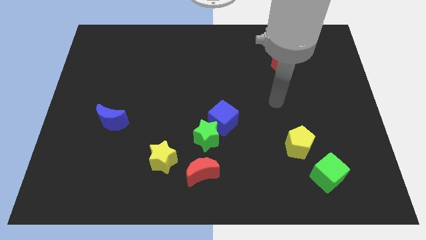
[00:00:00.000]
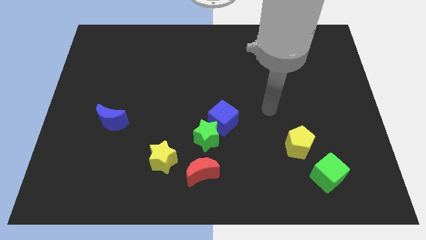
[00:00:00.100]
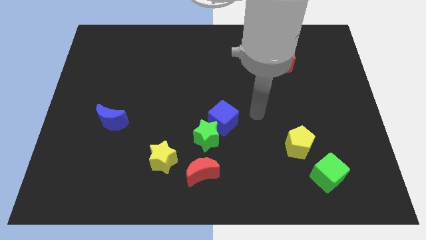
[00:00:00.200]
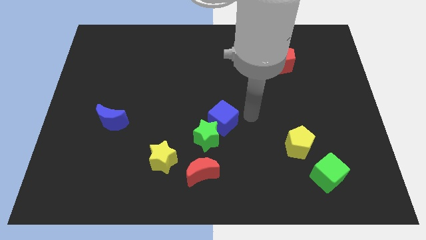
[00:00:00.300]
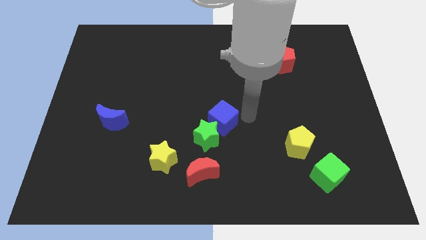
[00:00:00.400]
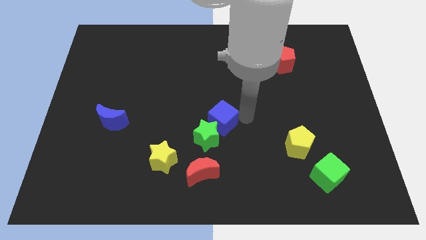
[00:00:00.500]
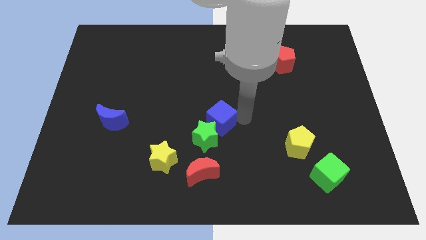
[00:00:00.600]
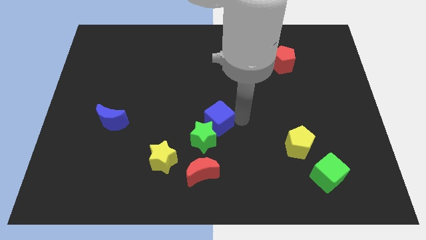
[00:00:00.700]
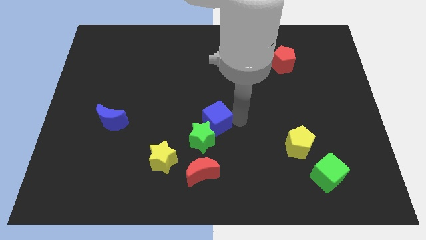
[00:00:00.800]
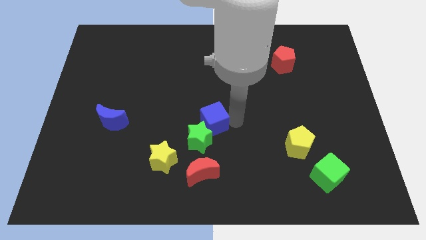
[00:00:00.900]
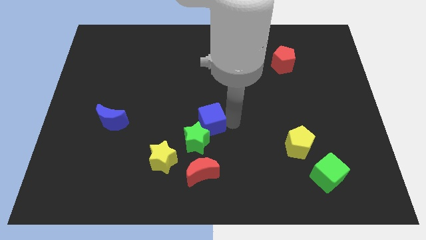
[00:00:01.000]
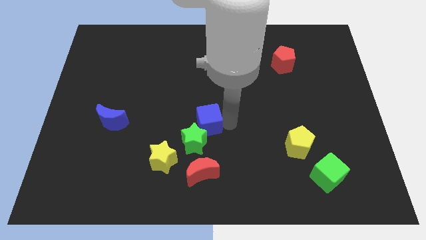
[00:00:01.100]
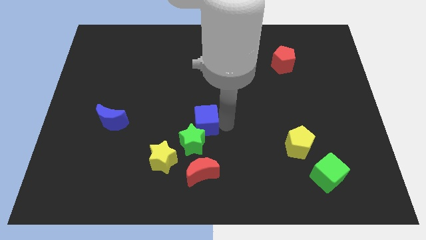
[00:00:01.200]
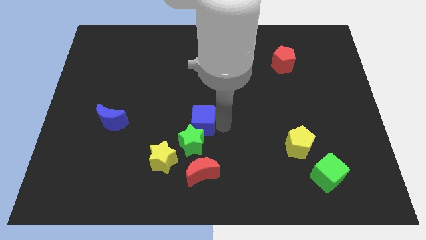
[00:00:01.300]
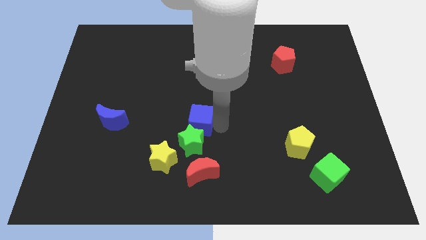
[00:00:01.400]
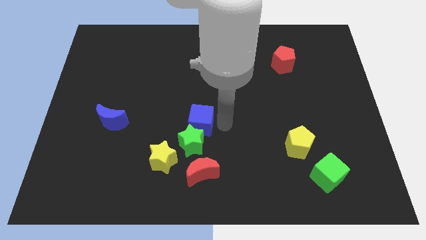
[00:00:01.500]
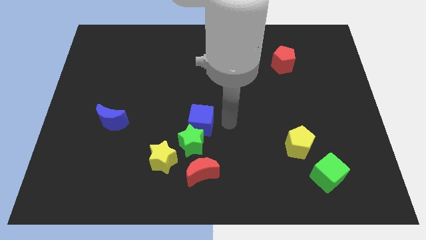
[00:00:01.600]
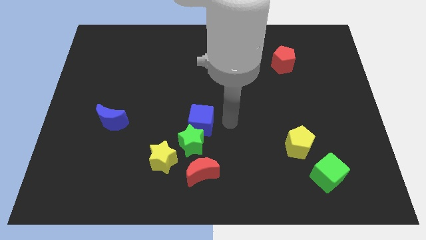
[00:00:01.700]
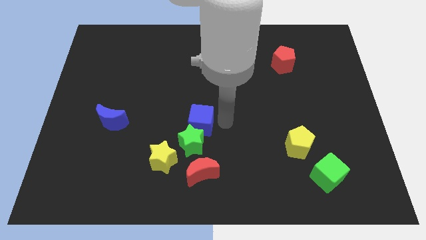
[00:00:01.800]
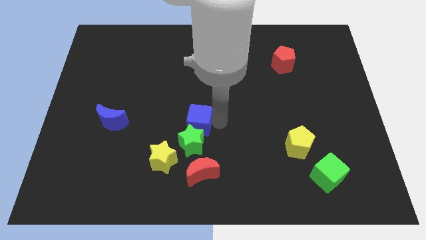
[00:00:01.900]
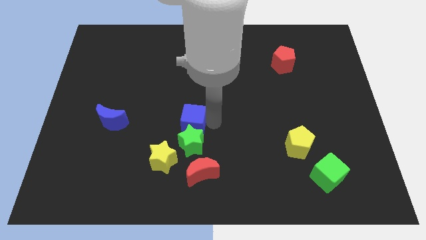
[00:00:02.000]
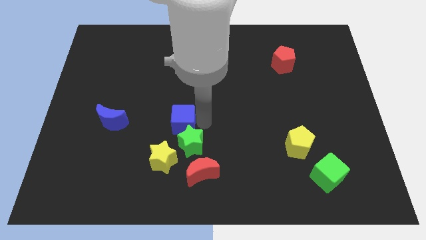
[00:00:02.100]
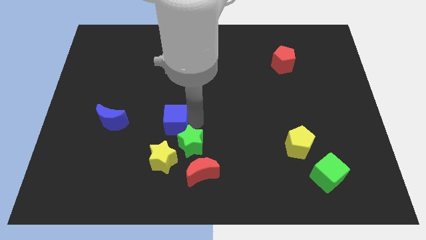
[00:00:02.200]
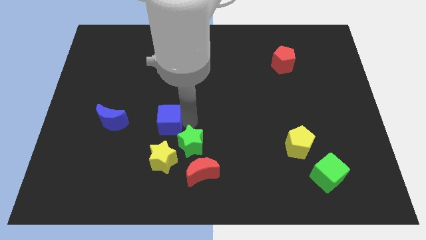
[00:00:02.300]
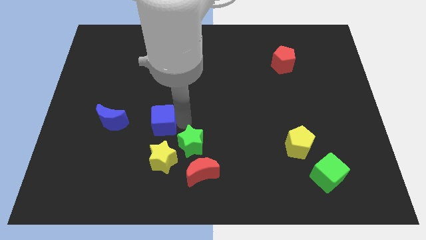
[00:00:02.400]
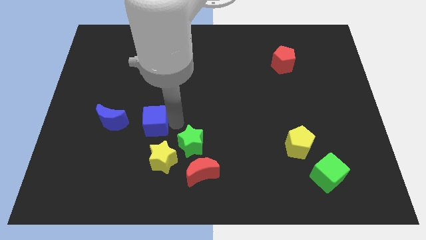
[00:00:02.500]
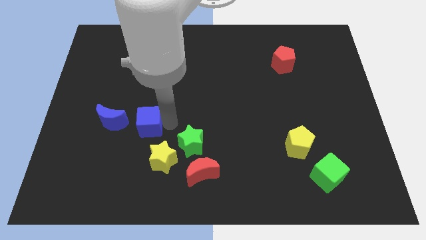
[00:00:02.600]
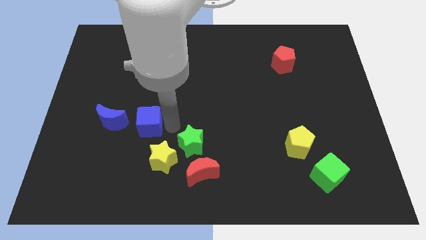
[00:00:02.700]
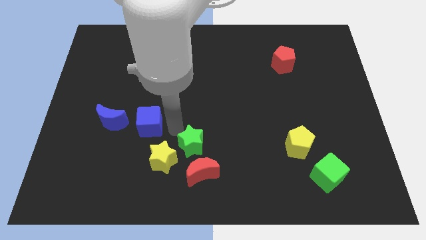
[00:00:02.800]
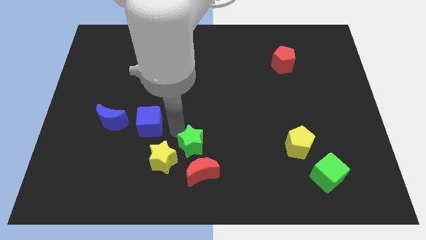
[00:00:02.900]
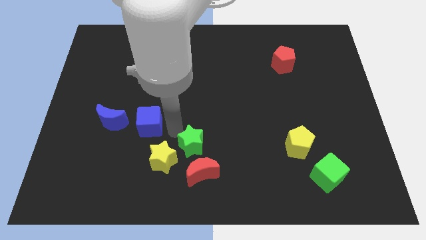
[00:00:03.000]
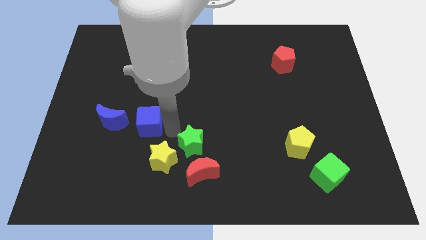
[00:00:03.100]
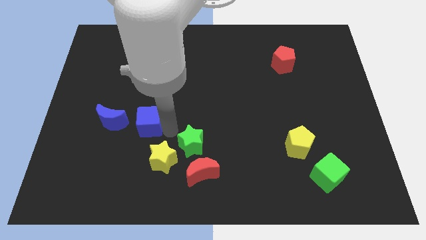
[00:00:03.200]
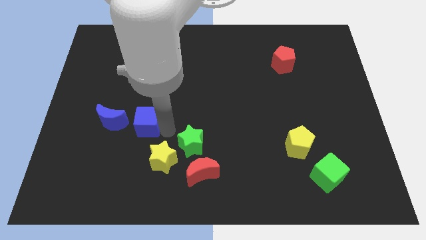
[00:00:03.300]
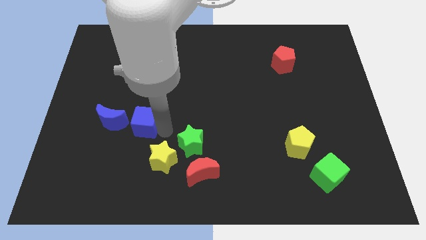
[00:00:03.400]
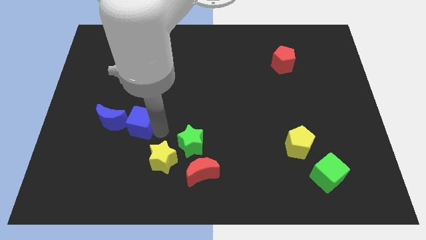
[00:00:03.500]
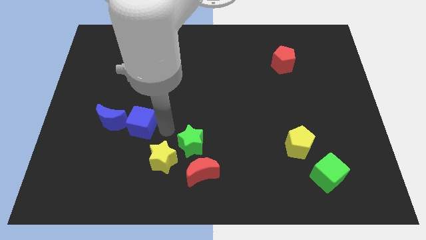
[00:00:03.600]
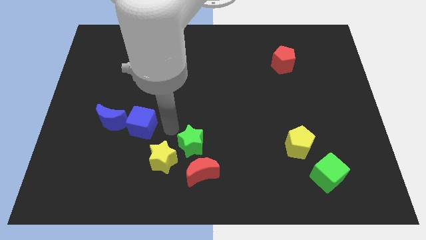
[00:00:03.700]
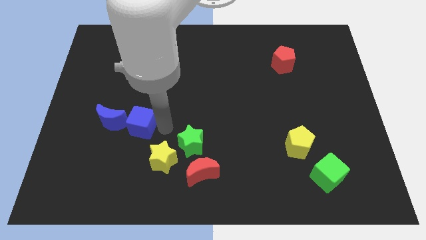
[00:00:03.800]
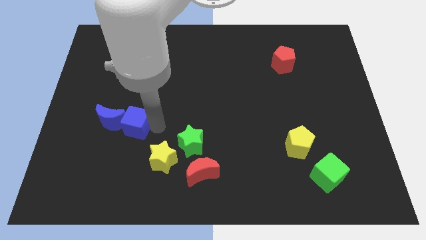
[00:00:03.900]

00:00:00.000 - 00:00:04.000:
move the blue cube close to the blue moon

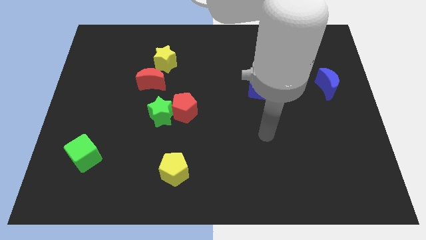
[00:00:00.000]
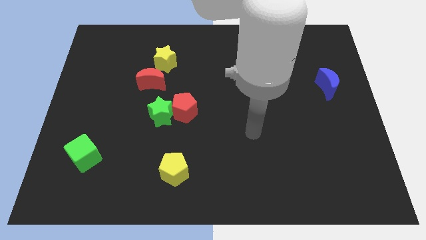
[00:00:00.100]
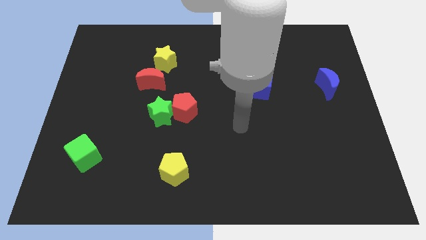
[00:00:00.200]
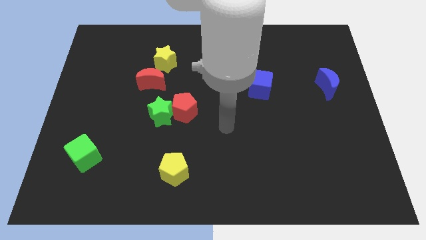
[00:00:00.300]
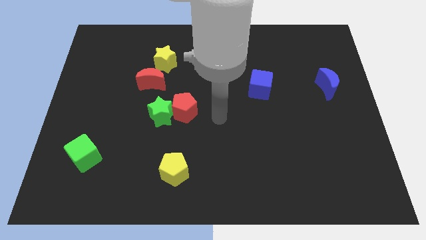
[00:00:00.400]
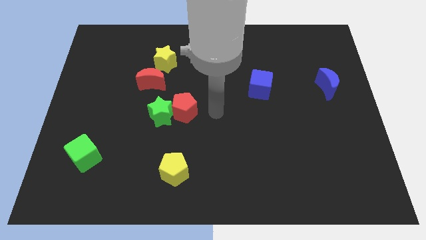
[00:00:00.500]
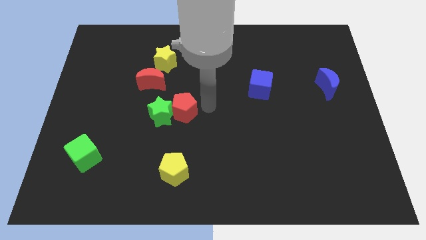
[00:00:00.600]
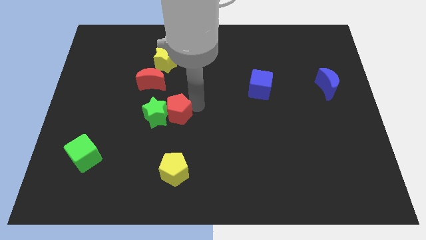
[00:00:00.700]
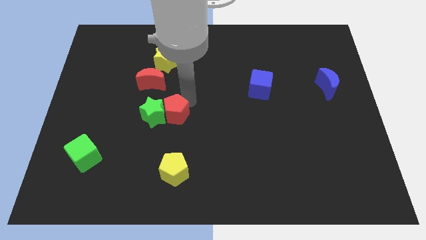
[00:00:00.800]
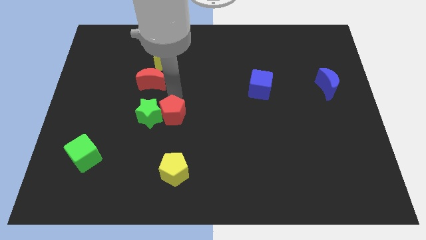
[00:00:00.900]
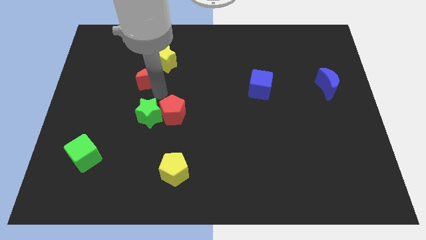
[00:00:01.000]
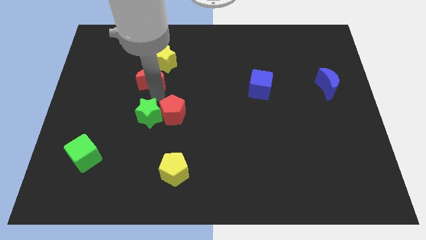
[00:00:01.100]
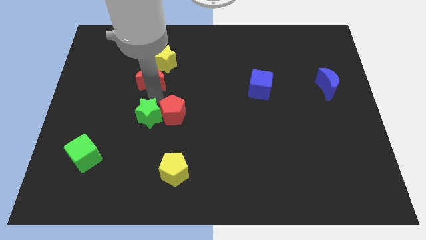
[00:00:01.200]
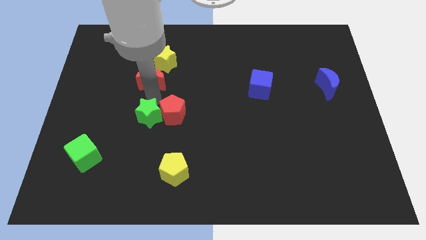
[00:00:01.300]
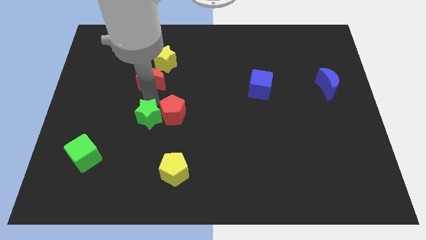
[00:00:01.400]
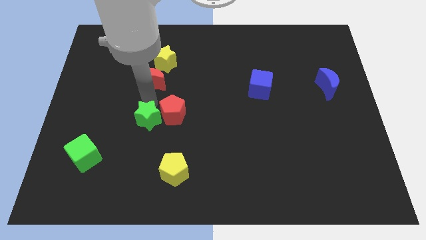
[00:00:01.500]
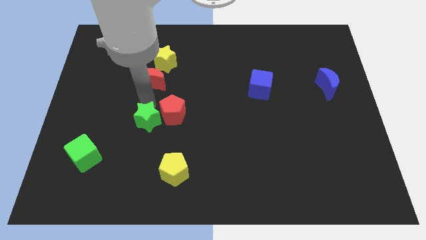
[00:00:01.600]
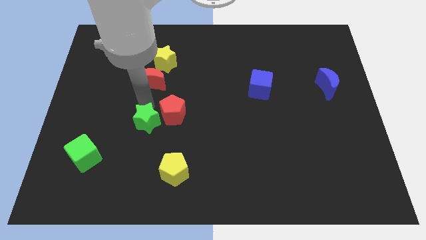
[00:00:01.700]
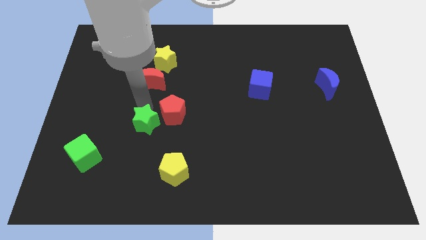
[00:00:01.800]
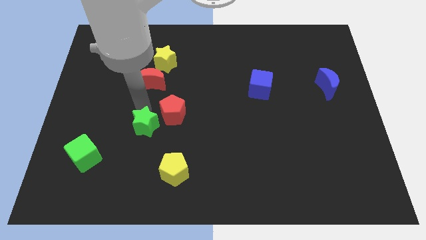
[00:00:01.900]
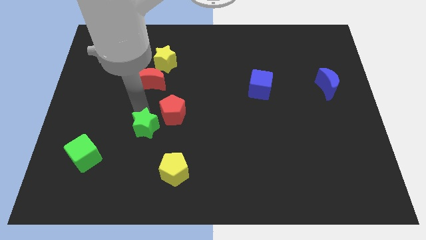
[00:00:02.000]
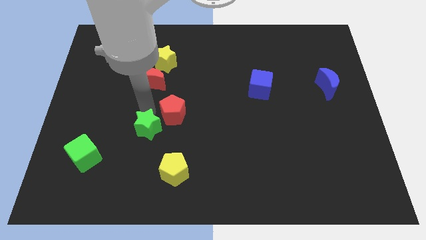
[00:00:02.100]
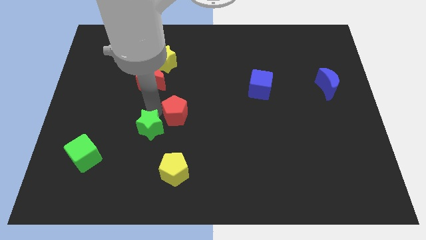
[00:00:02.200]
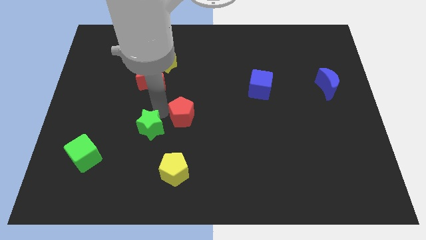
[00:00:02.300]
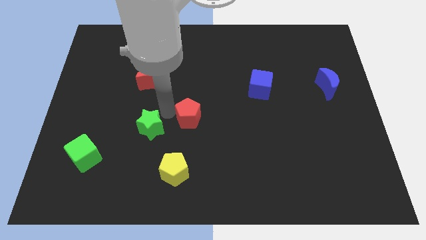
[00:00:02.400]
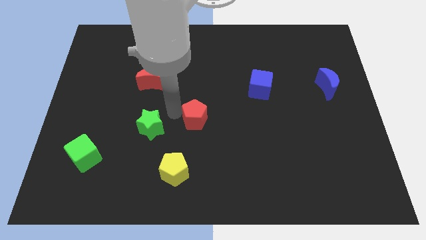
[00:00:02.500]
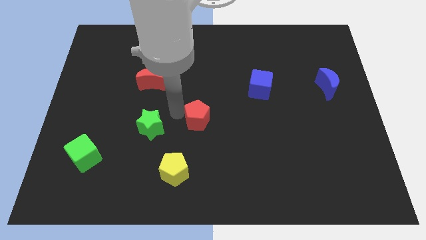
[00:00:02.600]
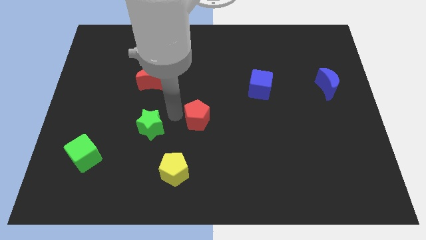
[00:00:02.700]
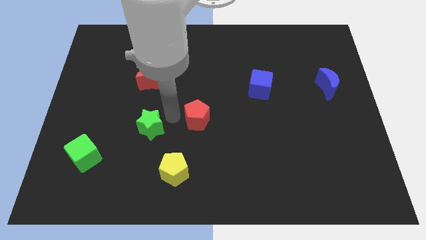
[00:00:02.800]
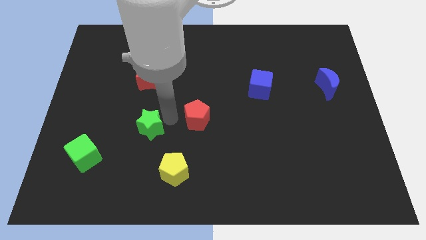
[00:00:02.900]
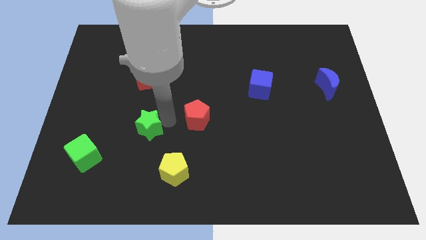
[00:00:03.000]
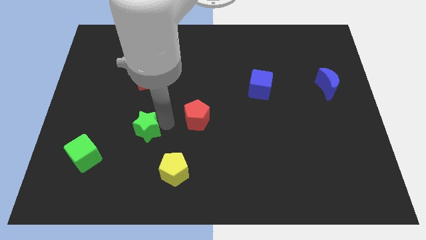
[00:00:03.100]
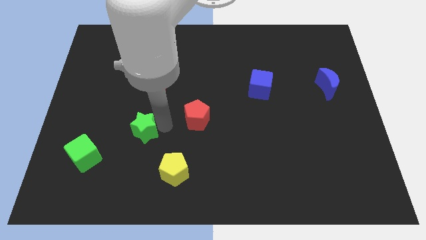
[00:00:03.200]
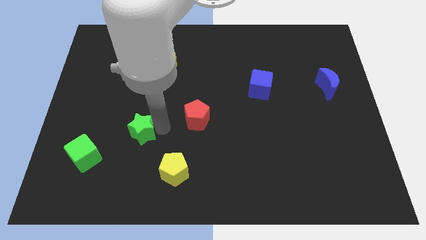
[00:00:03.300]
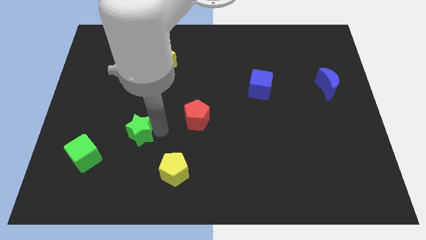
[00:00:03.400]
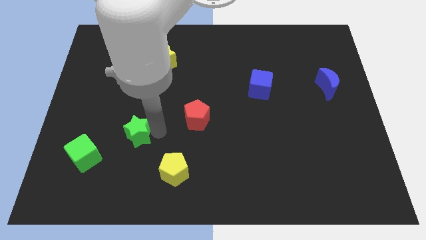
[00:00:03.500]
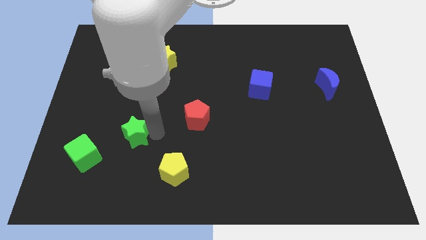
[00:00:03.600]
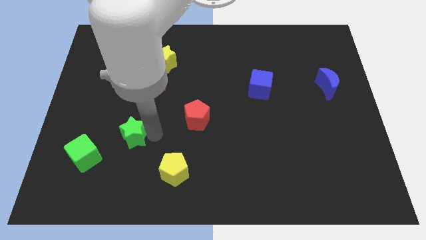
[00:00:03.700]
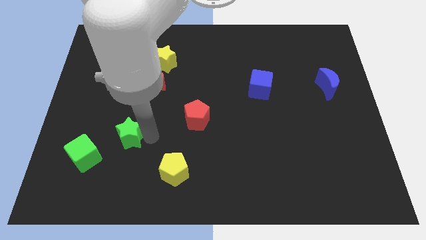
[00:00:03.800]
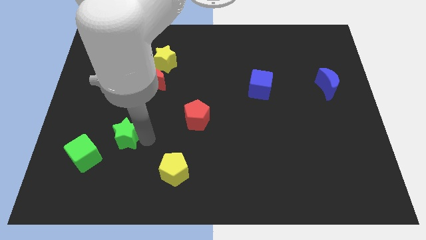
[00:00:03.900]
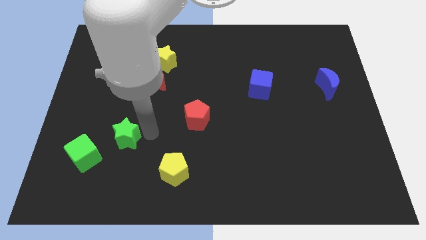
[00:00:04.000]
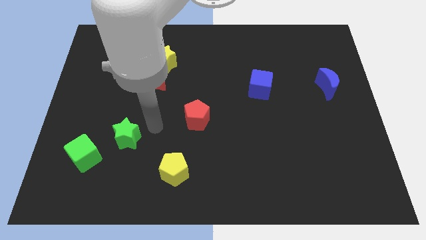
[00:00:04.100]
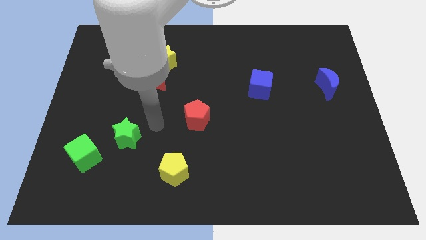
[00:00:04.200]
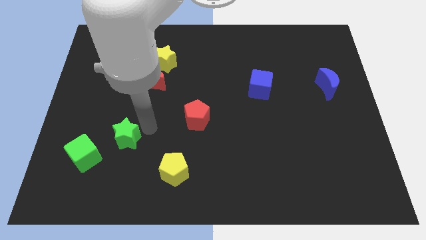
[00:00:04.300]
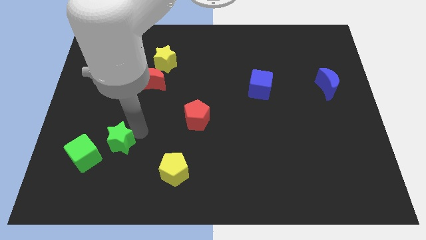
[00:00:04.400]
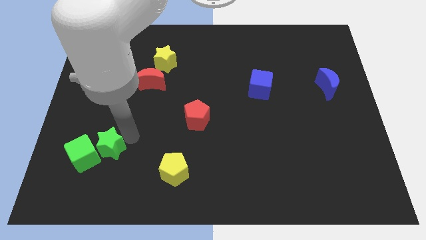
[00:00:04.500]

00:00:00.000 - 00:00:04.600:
push the green star to the green cube
